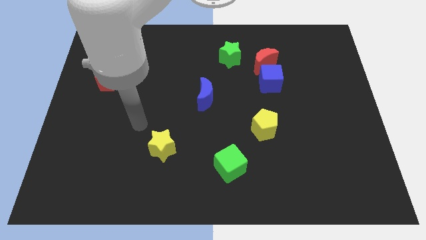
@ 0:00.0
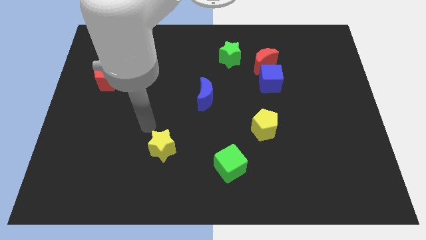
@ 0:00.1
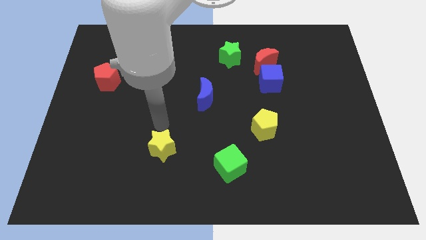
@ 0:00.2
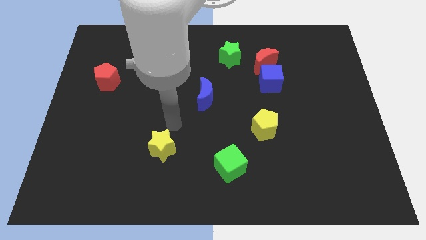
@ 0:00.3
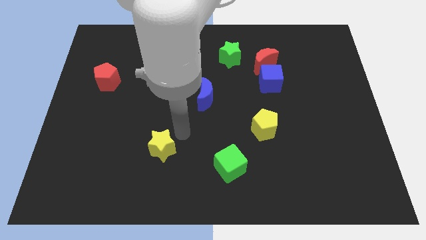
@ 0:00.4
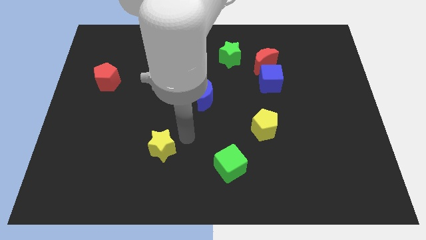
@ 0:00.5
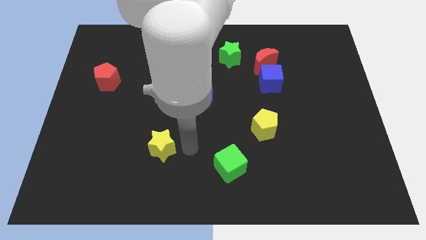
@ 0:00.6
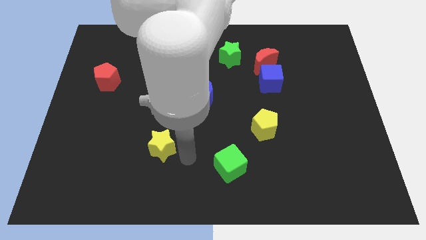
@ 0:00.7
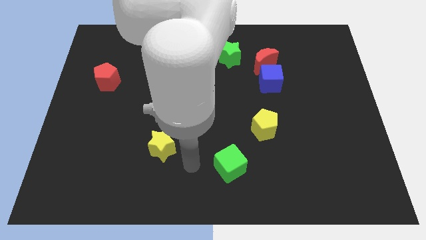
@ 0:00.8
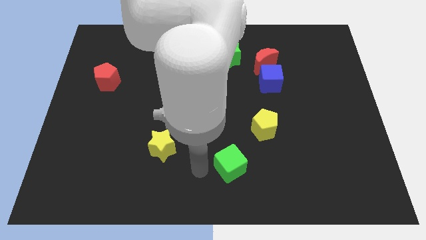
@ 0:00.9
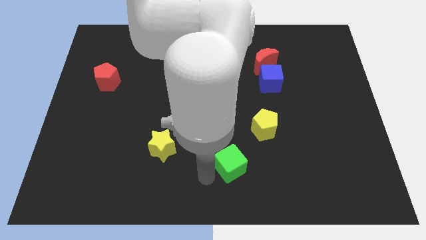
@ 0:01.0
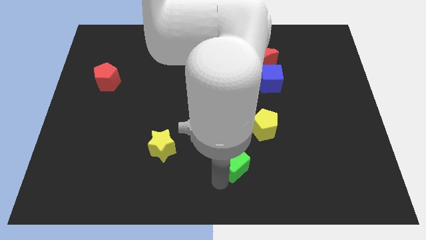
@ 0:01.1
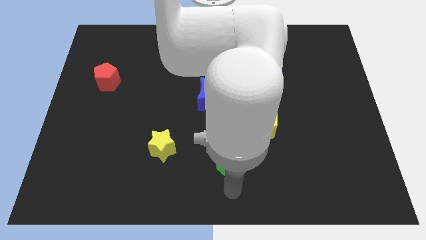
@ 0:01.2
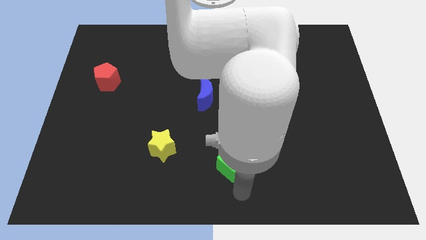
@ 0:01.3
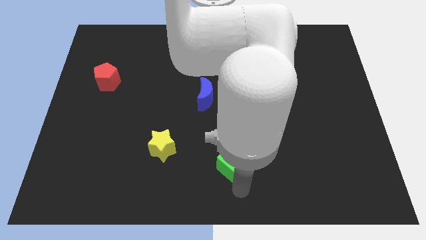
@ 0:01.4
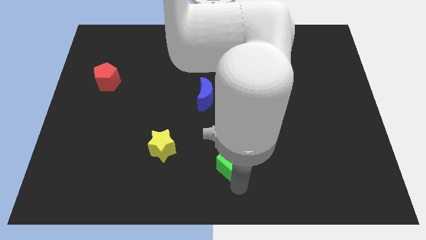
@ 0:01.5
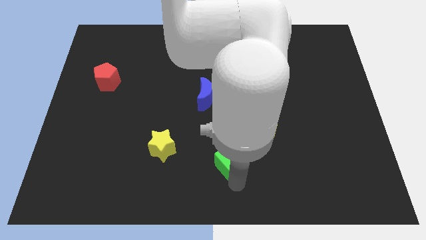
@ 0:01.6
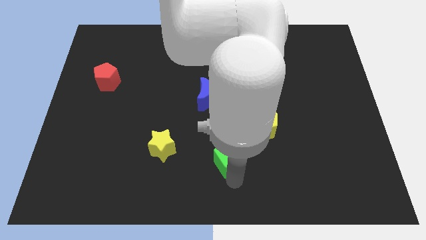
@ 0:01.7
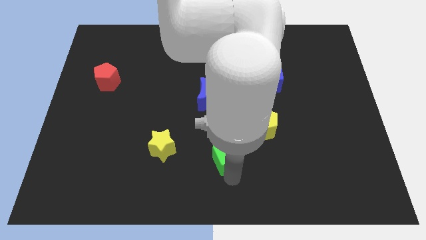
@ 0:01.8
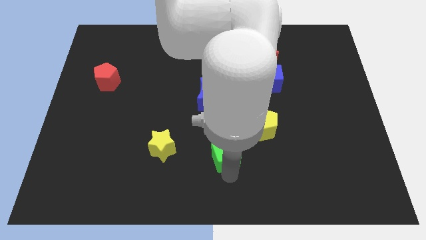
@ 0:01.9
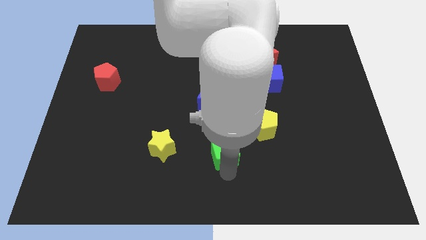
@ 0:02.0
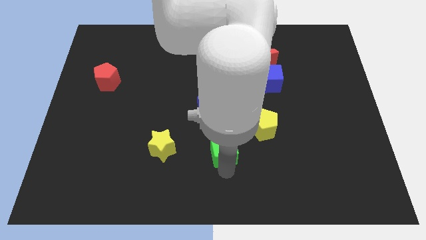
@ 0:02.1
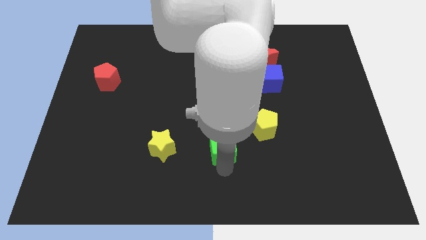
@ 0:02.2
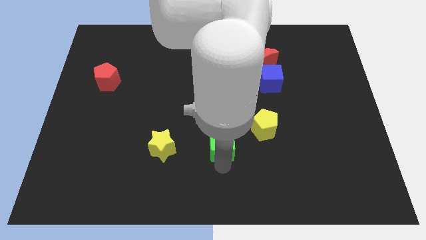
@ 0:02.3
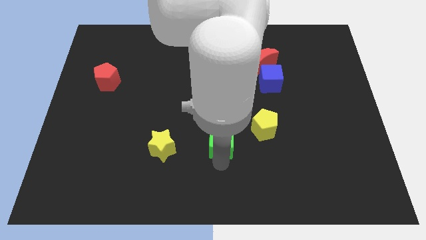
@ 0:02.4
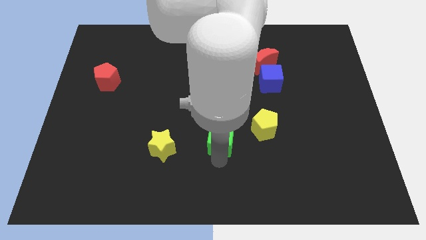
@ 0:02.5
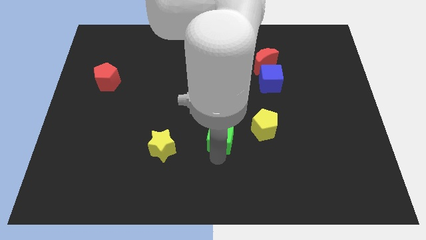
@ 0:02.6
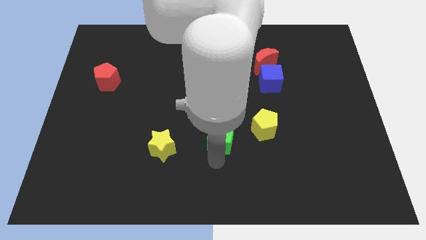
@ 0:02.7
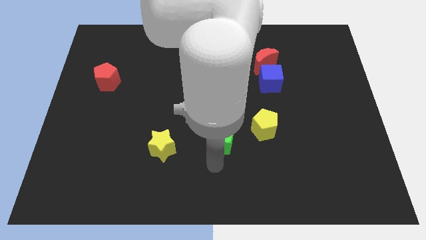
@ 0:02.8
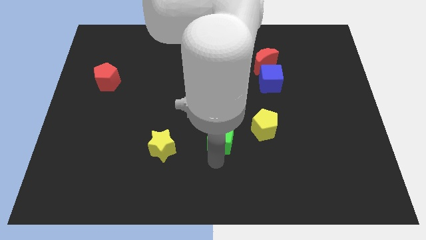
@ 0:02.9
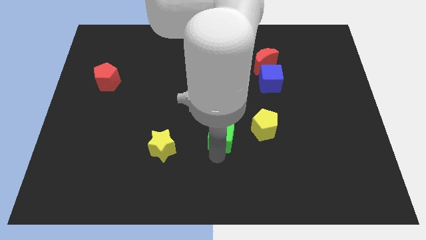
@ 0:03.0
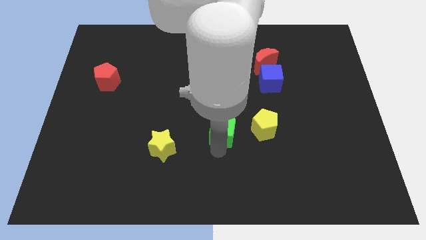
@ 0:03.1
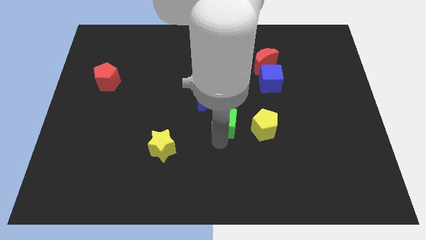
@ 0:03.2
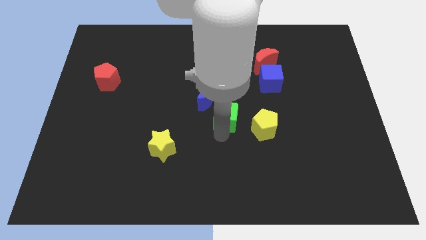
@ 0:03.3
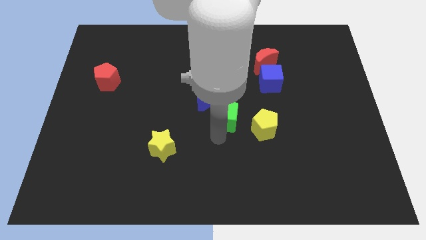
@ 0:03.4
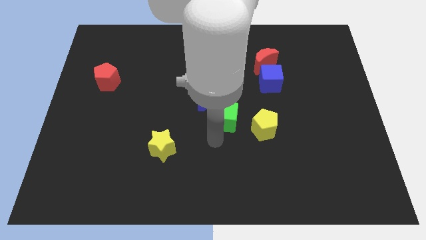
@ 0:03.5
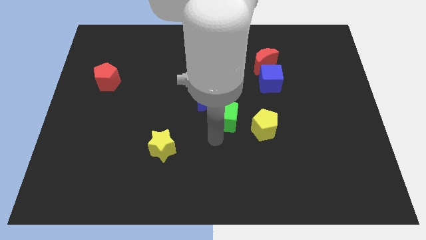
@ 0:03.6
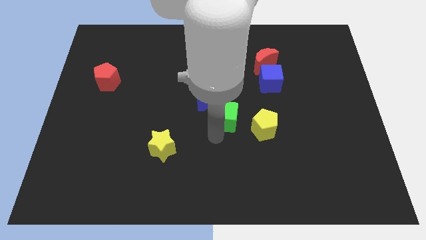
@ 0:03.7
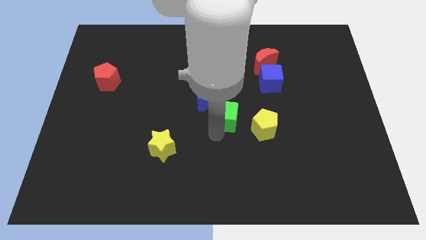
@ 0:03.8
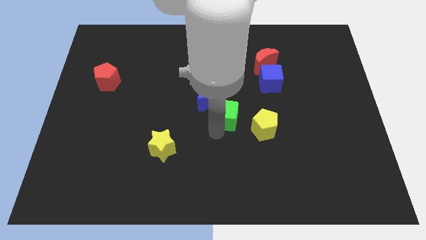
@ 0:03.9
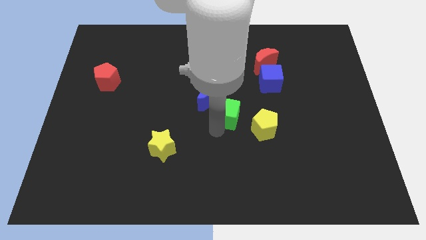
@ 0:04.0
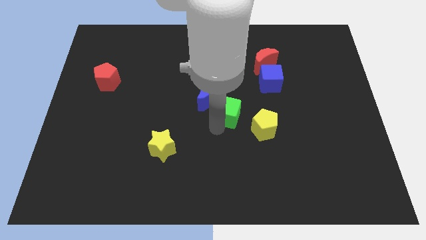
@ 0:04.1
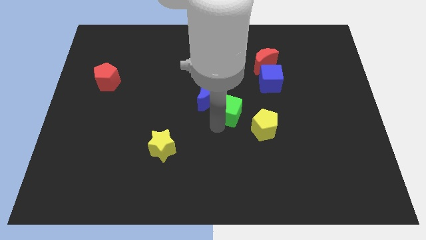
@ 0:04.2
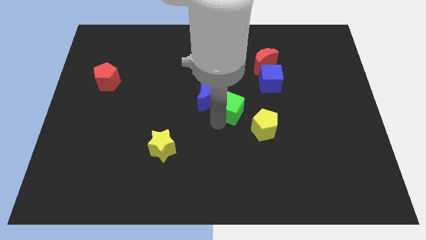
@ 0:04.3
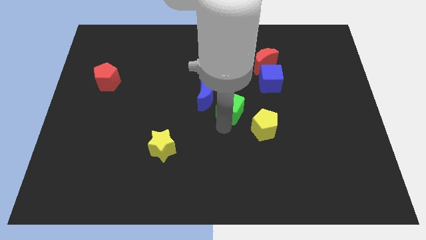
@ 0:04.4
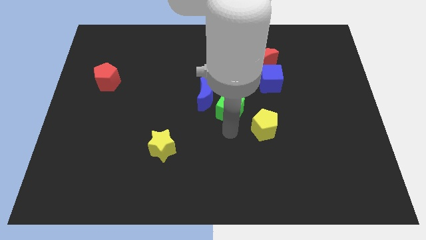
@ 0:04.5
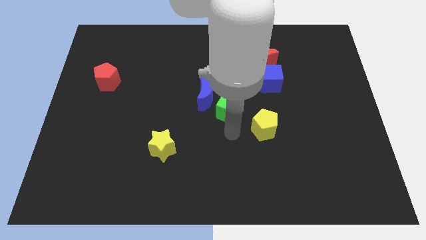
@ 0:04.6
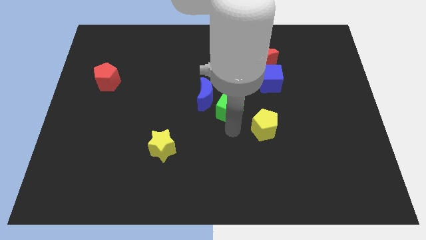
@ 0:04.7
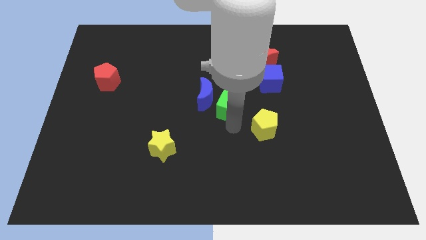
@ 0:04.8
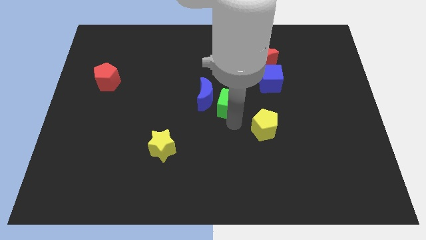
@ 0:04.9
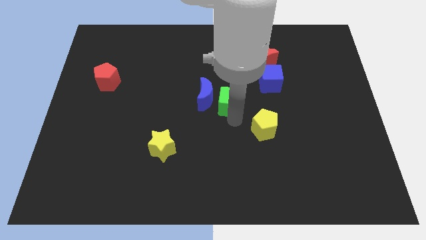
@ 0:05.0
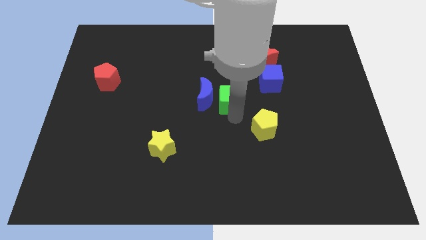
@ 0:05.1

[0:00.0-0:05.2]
push the green cube to the top right of the blue moon

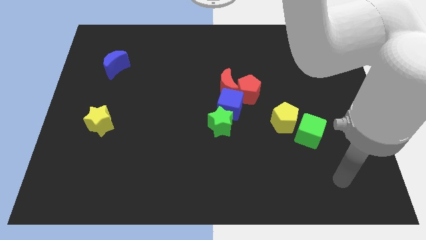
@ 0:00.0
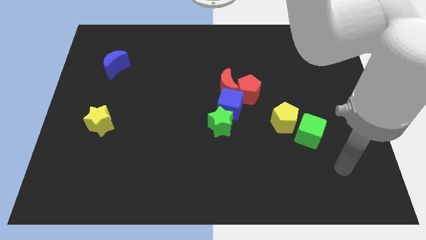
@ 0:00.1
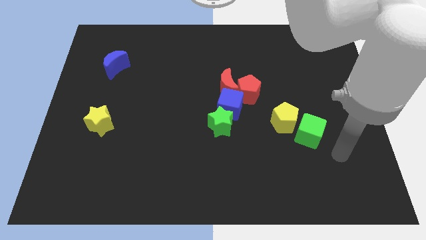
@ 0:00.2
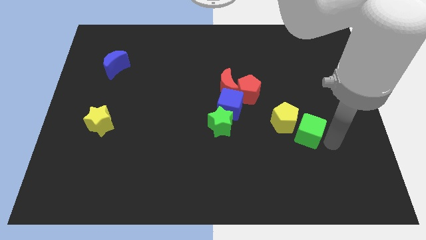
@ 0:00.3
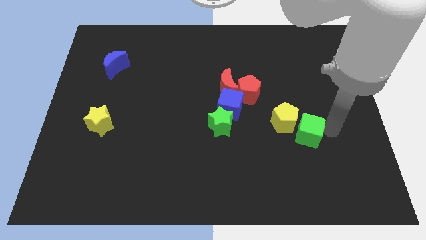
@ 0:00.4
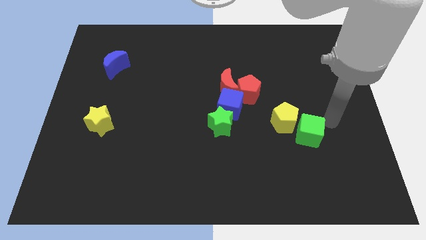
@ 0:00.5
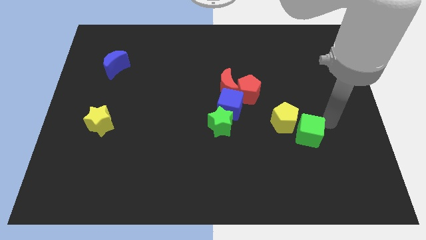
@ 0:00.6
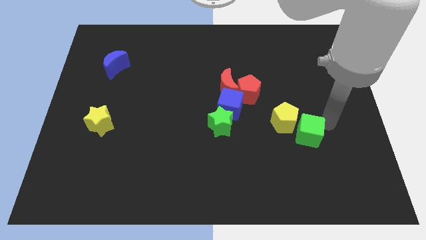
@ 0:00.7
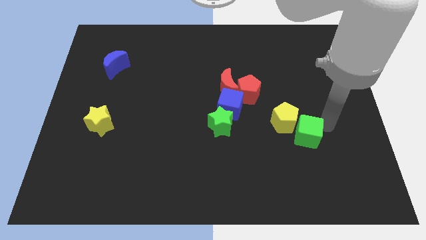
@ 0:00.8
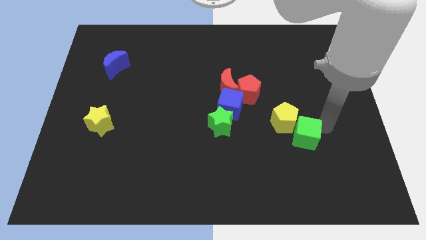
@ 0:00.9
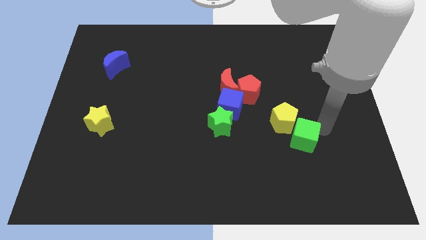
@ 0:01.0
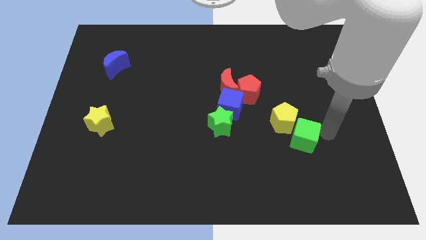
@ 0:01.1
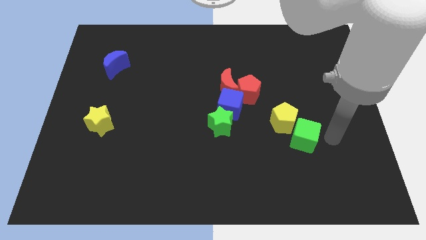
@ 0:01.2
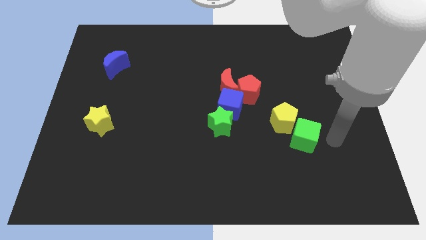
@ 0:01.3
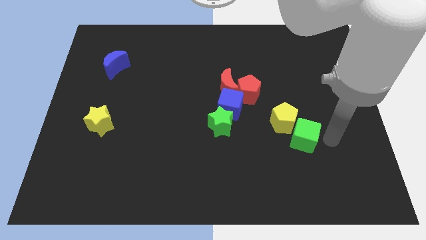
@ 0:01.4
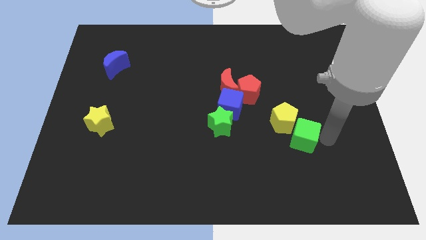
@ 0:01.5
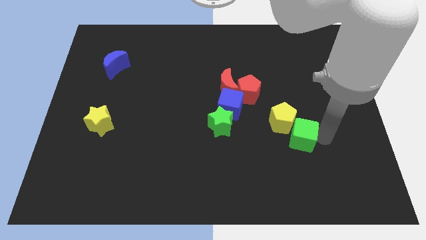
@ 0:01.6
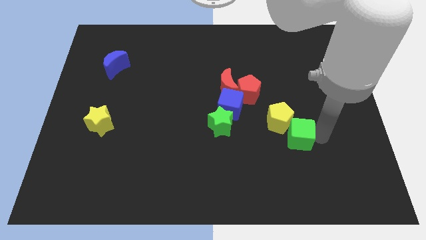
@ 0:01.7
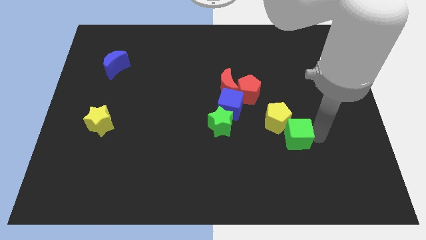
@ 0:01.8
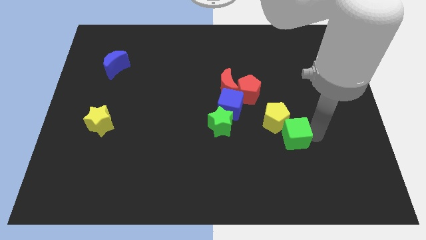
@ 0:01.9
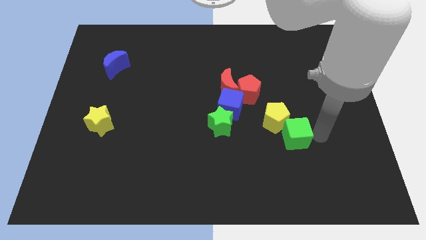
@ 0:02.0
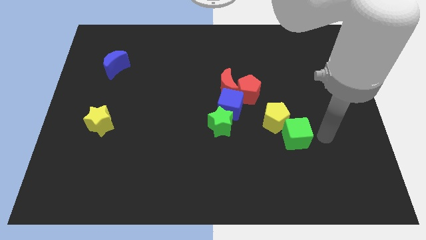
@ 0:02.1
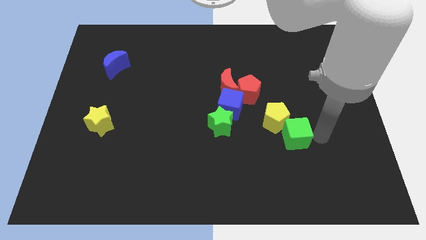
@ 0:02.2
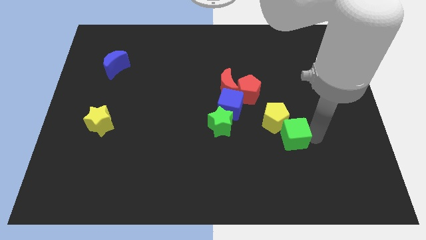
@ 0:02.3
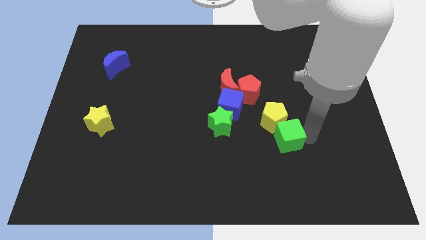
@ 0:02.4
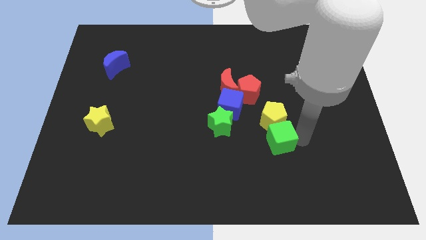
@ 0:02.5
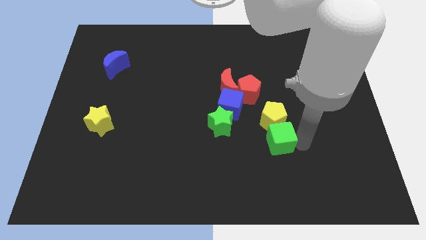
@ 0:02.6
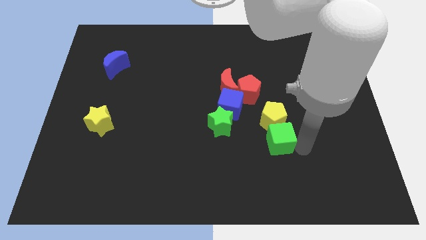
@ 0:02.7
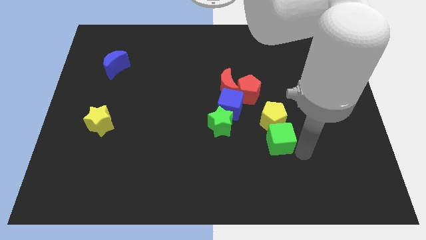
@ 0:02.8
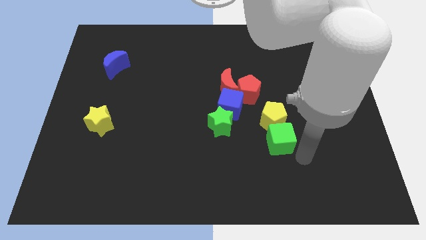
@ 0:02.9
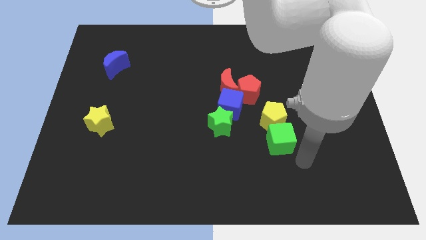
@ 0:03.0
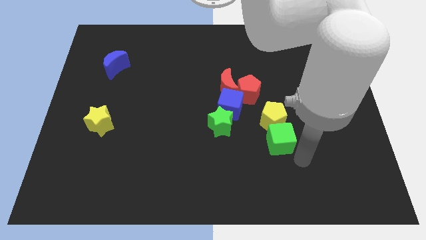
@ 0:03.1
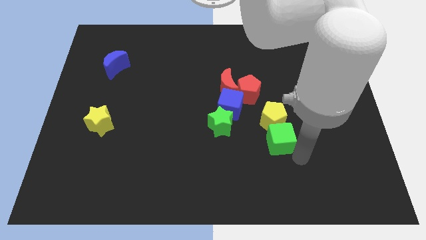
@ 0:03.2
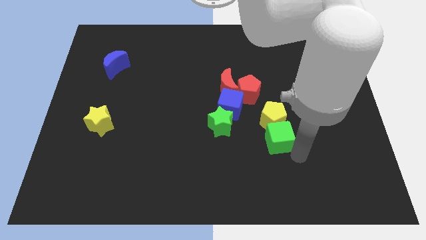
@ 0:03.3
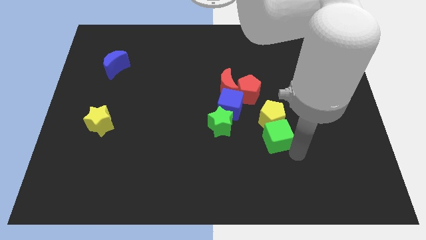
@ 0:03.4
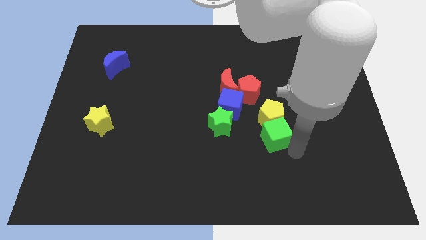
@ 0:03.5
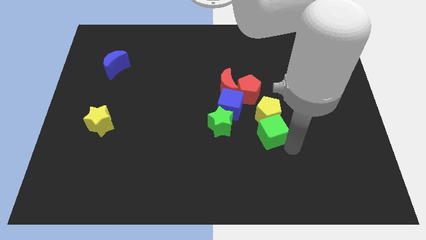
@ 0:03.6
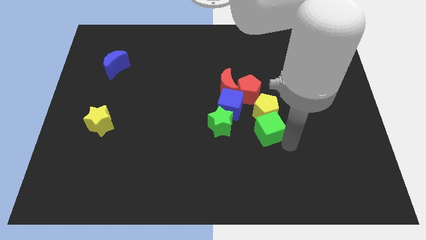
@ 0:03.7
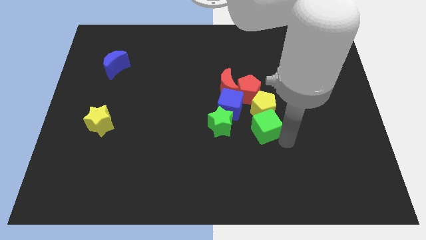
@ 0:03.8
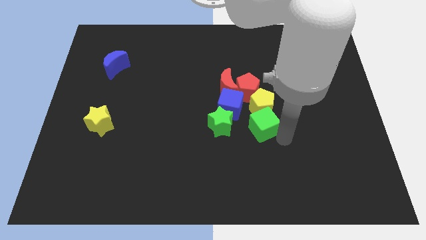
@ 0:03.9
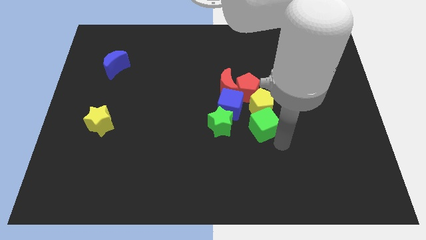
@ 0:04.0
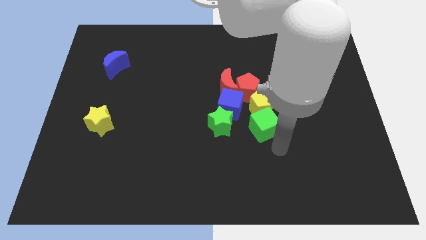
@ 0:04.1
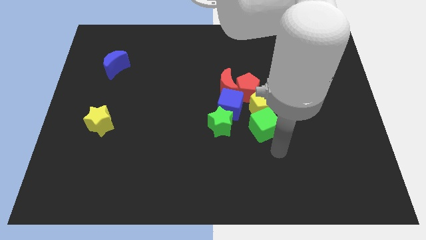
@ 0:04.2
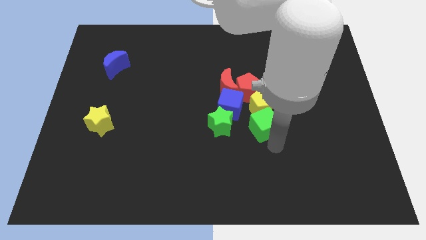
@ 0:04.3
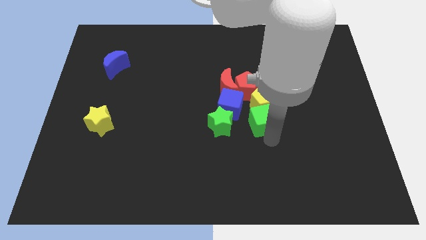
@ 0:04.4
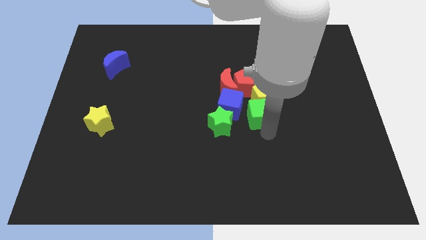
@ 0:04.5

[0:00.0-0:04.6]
move the green cube to the bottom right side of the red moon
